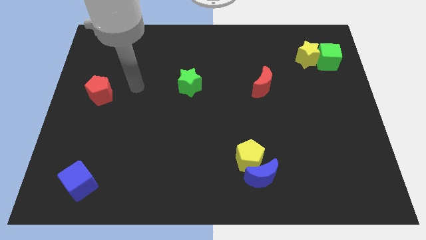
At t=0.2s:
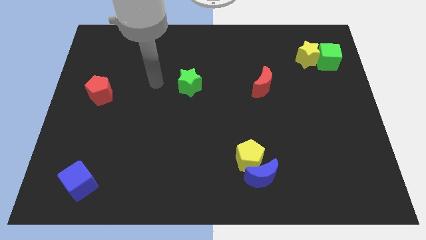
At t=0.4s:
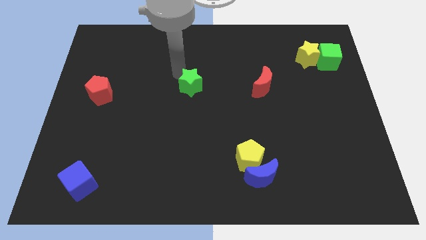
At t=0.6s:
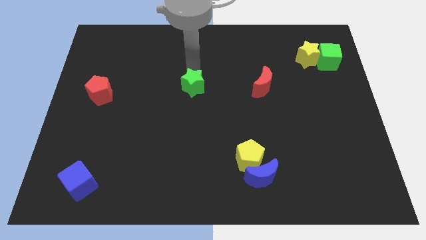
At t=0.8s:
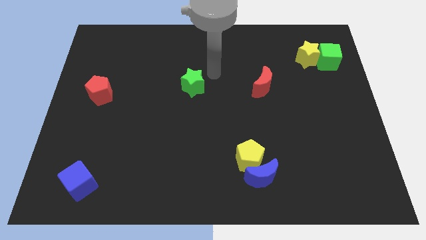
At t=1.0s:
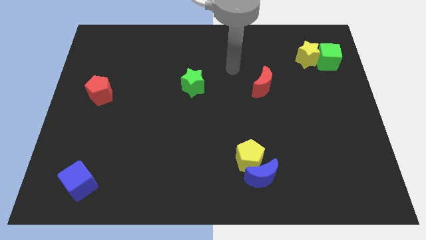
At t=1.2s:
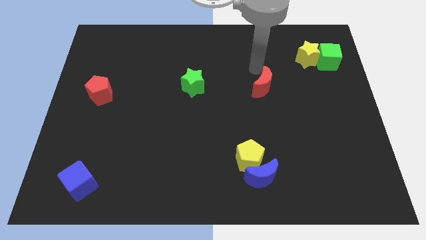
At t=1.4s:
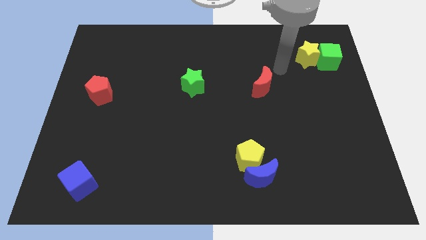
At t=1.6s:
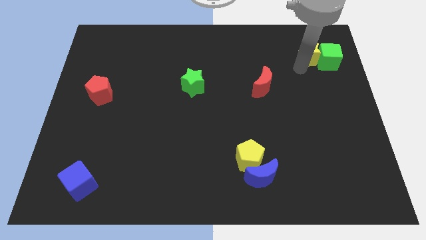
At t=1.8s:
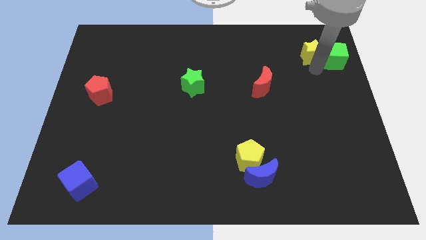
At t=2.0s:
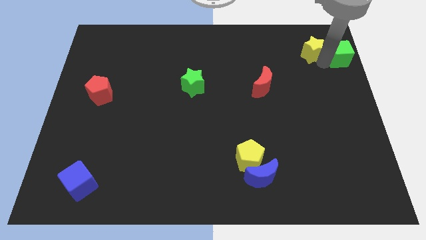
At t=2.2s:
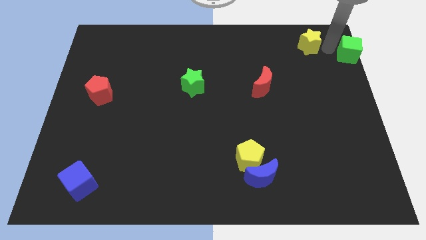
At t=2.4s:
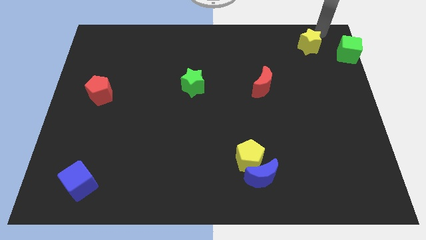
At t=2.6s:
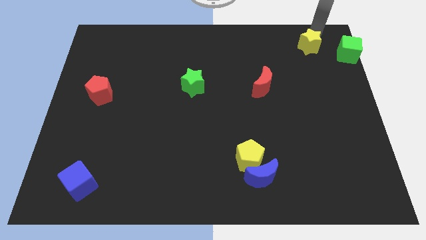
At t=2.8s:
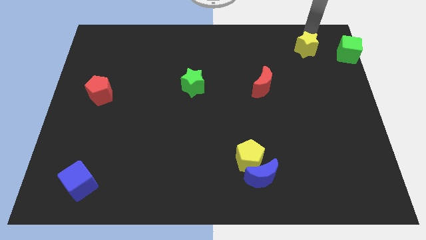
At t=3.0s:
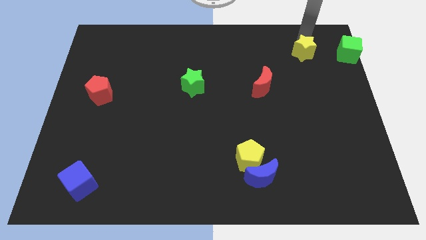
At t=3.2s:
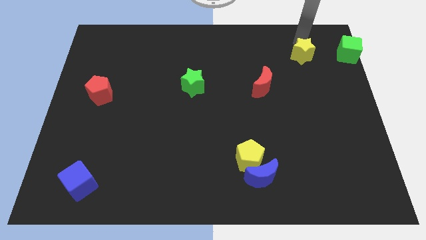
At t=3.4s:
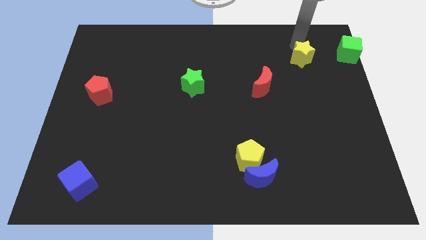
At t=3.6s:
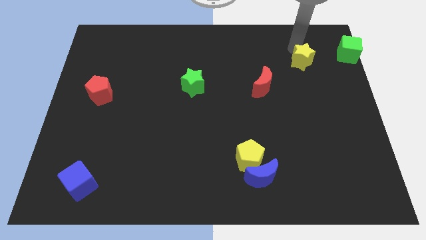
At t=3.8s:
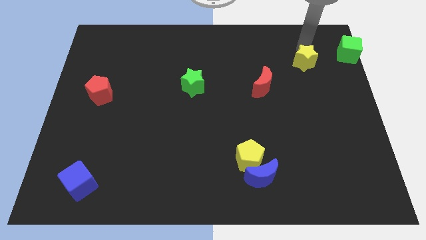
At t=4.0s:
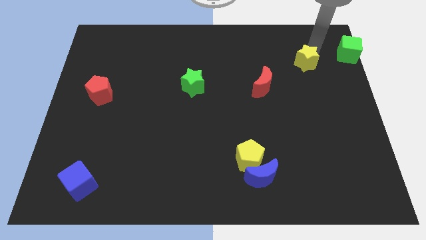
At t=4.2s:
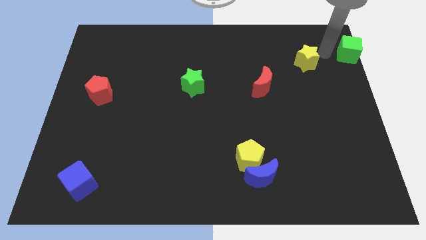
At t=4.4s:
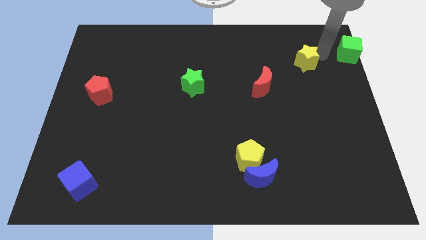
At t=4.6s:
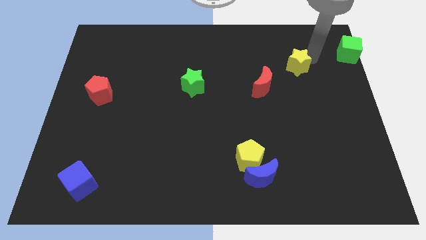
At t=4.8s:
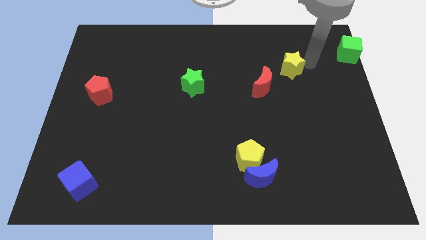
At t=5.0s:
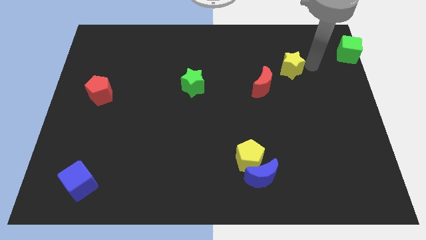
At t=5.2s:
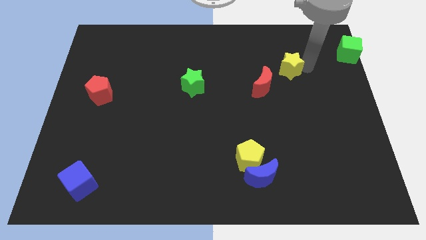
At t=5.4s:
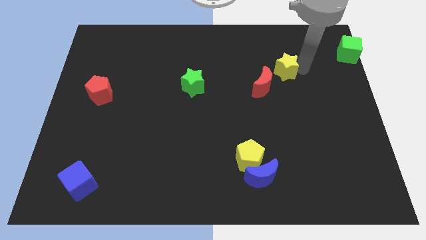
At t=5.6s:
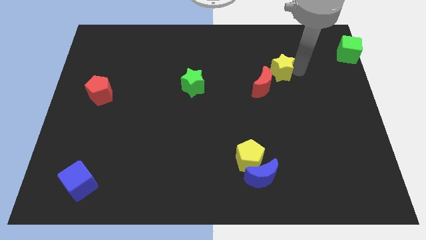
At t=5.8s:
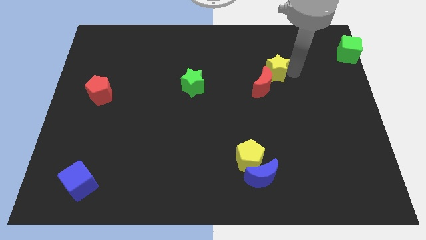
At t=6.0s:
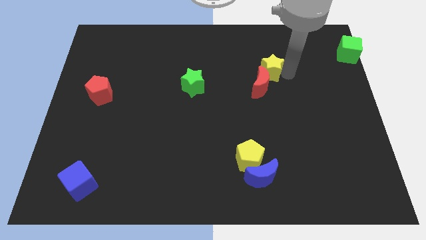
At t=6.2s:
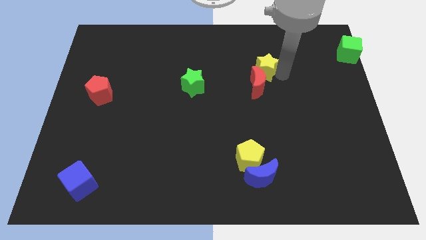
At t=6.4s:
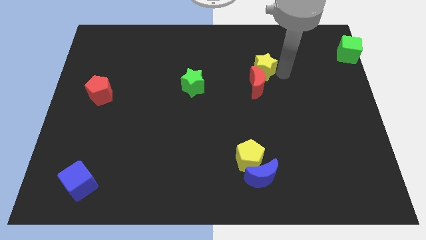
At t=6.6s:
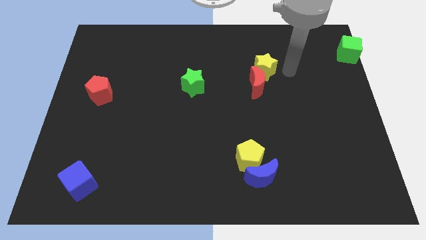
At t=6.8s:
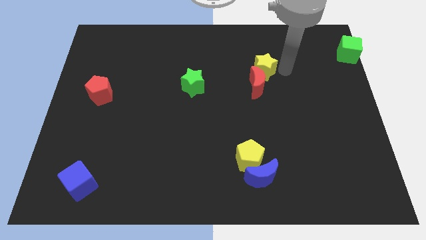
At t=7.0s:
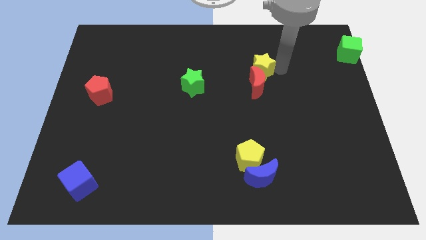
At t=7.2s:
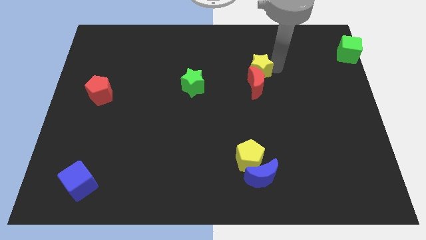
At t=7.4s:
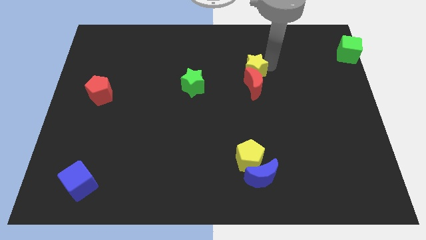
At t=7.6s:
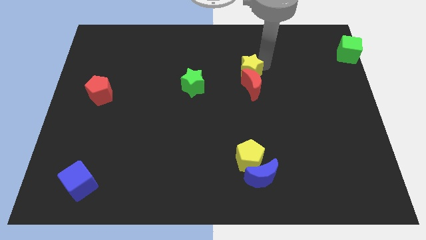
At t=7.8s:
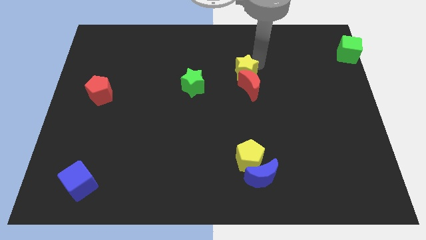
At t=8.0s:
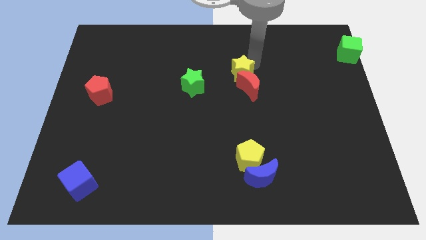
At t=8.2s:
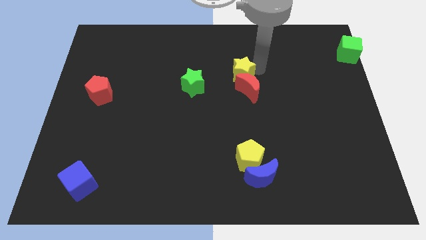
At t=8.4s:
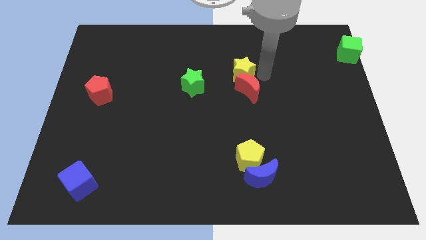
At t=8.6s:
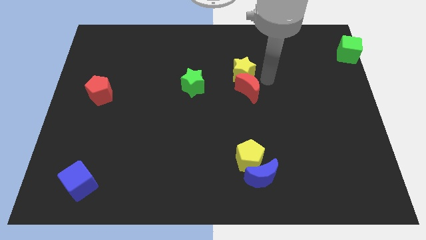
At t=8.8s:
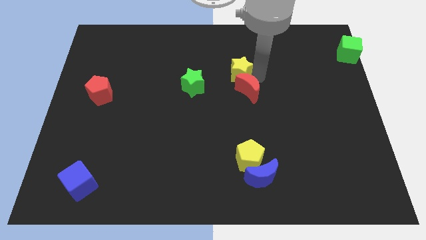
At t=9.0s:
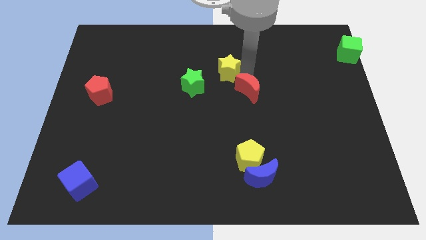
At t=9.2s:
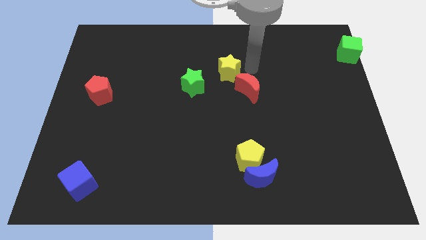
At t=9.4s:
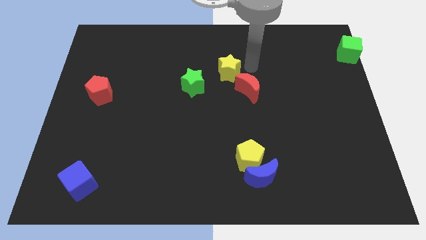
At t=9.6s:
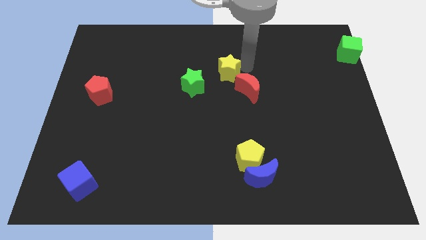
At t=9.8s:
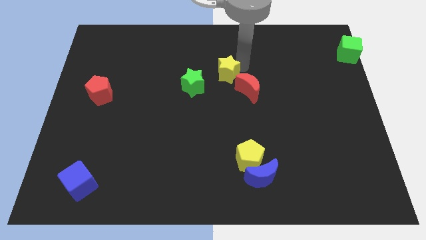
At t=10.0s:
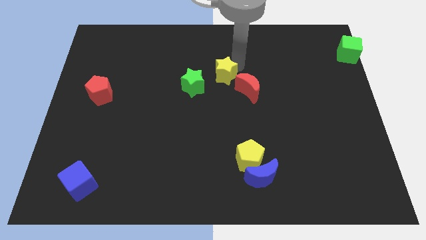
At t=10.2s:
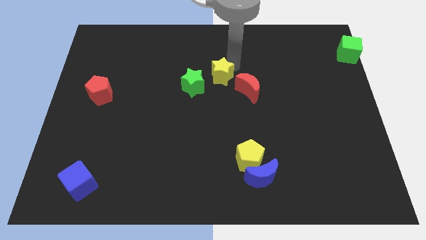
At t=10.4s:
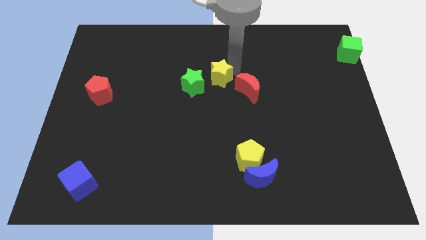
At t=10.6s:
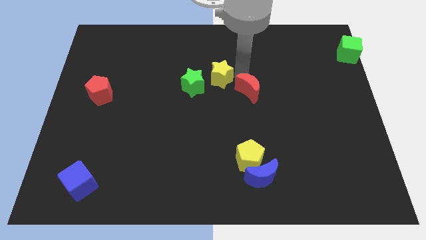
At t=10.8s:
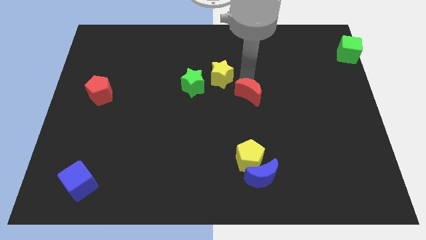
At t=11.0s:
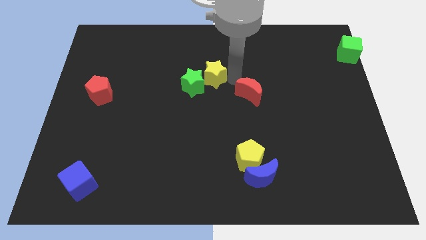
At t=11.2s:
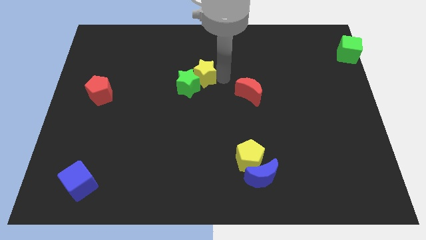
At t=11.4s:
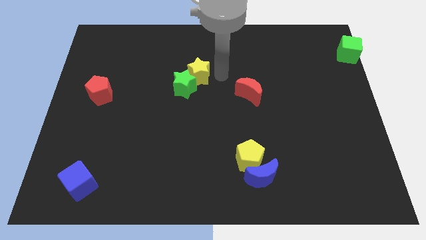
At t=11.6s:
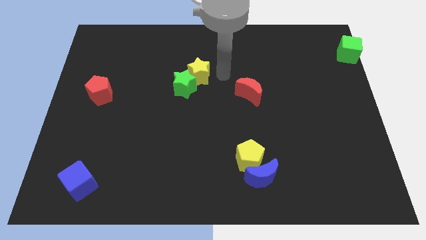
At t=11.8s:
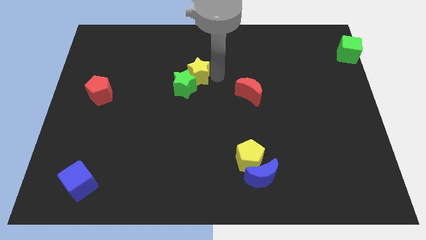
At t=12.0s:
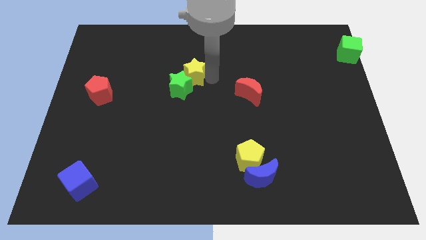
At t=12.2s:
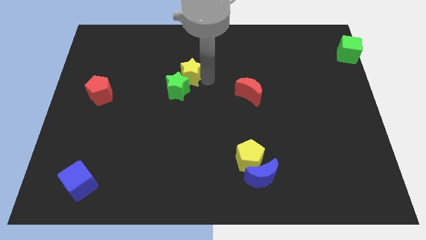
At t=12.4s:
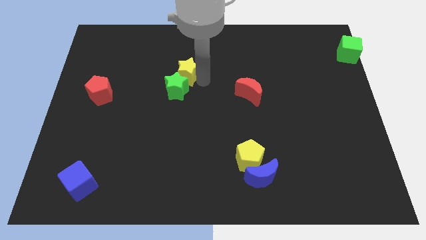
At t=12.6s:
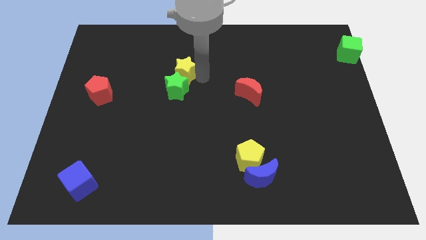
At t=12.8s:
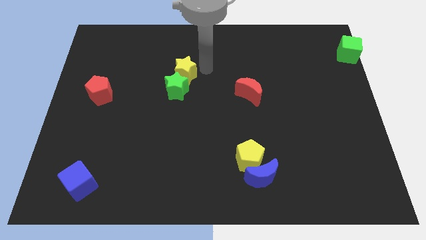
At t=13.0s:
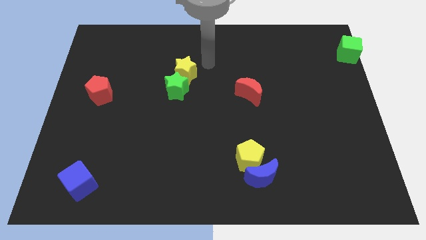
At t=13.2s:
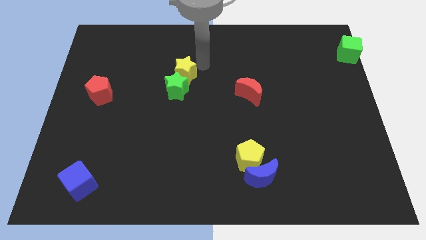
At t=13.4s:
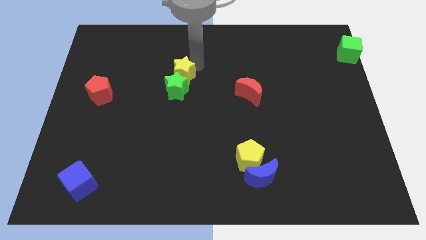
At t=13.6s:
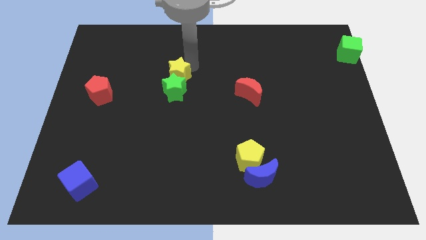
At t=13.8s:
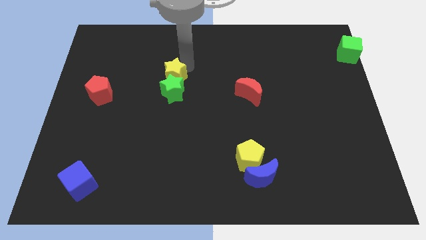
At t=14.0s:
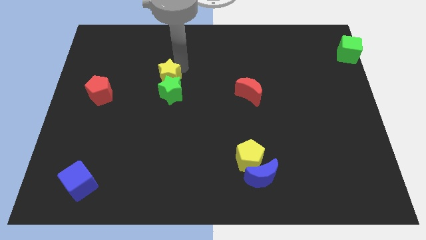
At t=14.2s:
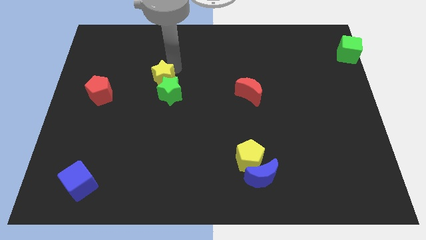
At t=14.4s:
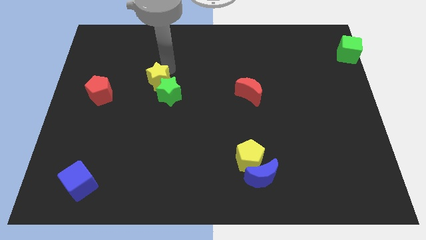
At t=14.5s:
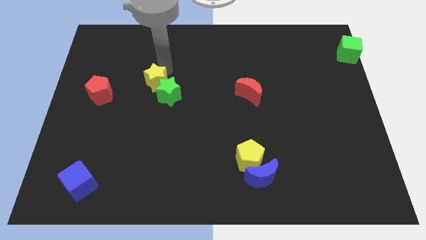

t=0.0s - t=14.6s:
push the yellow star just right of the red pentagon

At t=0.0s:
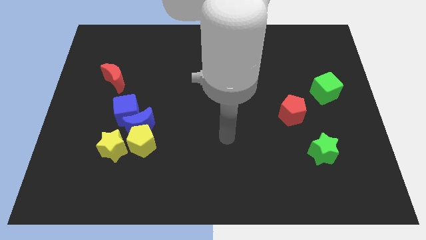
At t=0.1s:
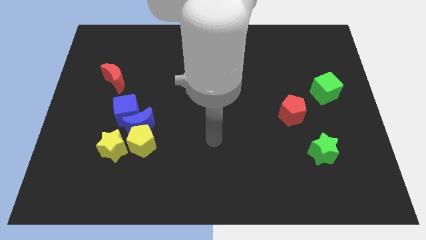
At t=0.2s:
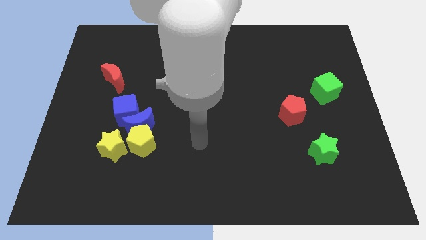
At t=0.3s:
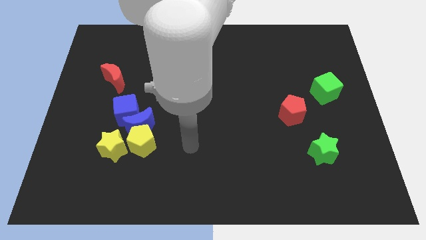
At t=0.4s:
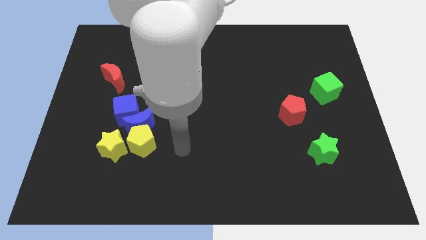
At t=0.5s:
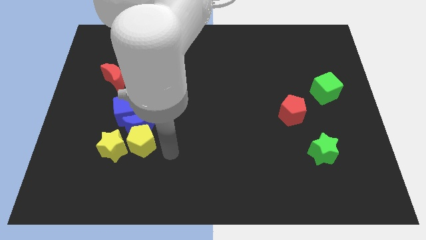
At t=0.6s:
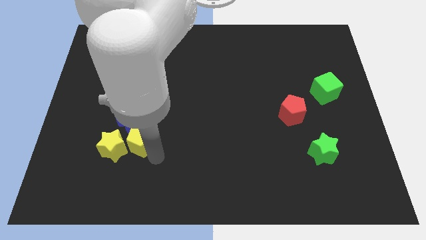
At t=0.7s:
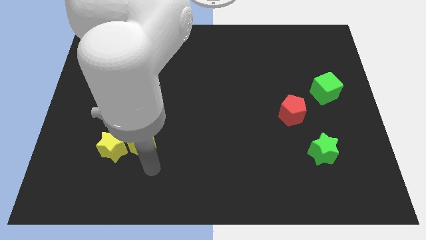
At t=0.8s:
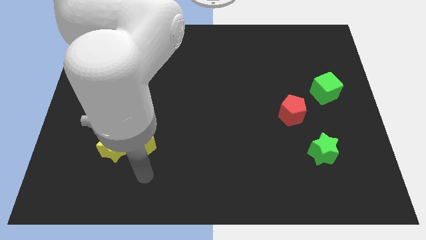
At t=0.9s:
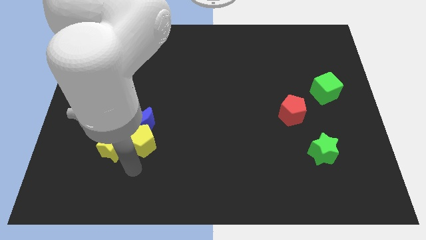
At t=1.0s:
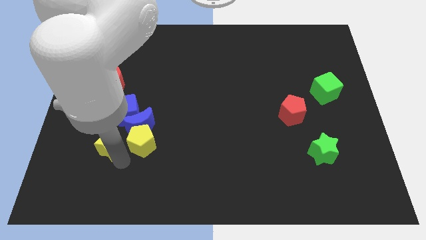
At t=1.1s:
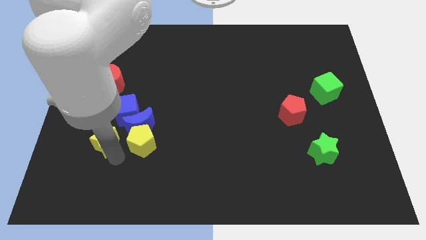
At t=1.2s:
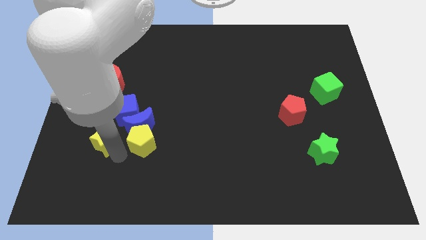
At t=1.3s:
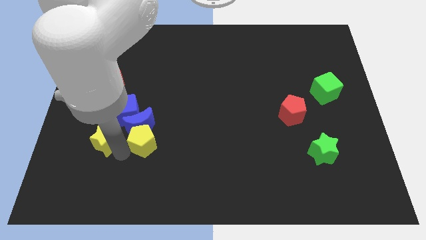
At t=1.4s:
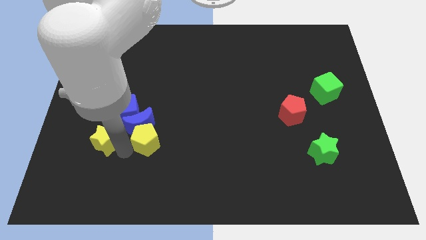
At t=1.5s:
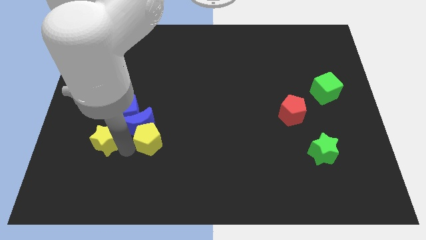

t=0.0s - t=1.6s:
move the yellow pentagon just right of the blue moon
